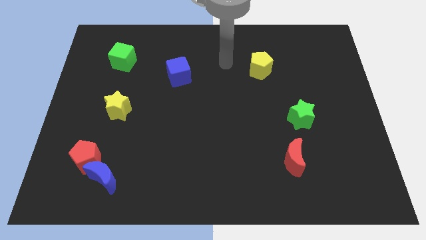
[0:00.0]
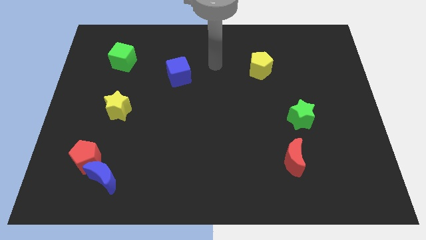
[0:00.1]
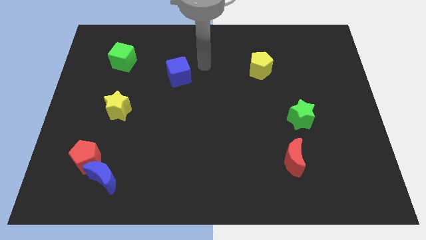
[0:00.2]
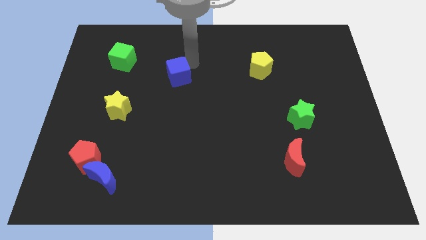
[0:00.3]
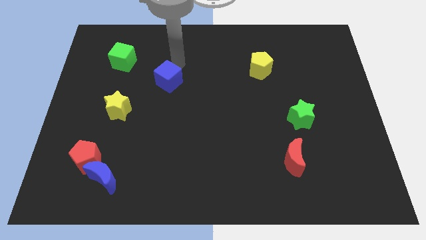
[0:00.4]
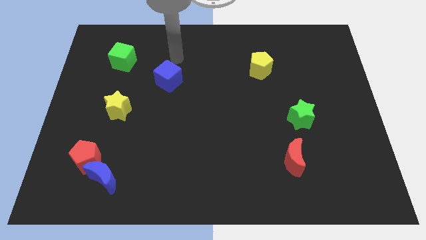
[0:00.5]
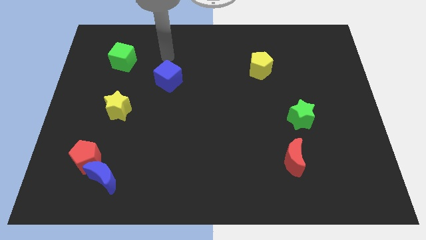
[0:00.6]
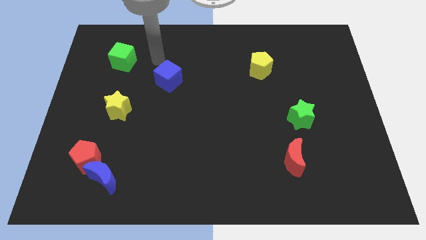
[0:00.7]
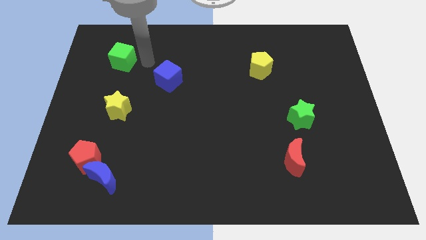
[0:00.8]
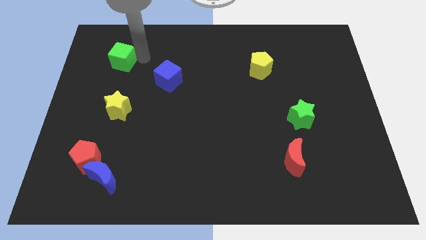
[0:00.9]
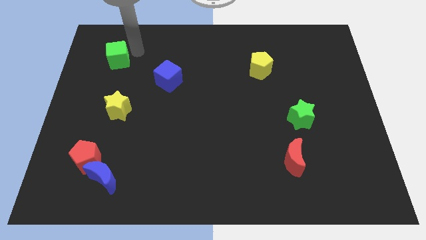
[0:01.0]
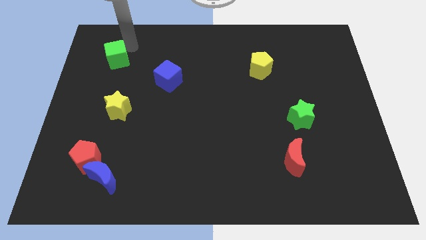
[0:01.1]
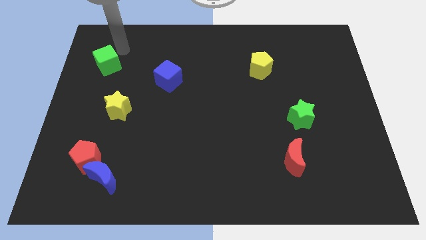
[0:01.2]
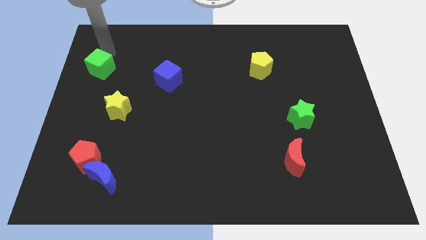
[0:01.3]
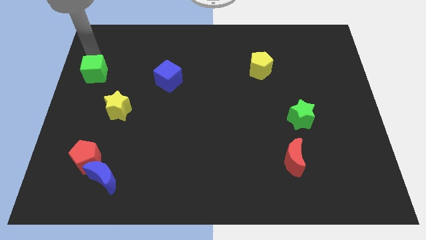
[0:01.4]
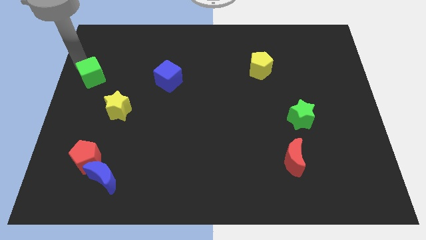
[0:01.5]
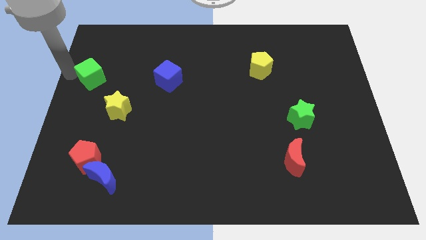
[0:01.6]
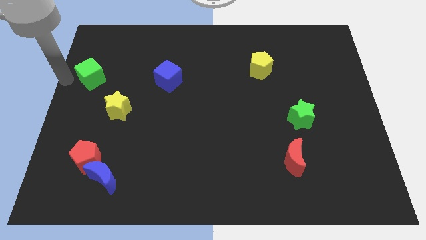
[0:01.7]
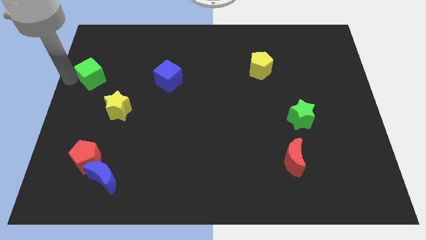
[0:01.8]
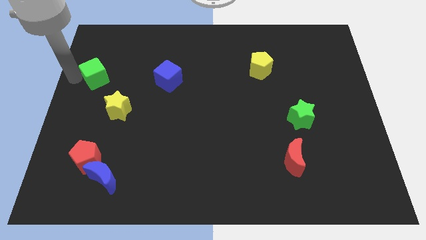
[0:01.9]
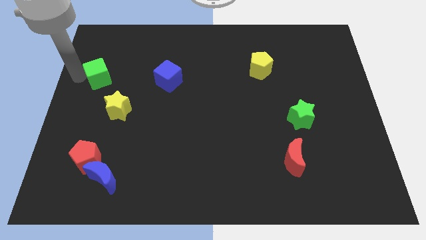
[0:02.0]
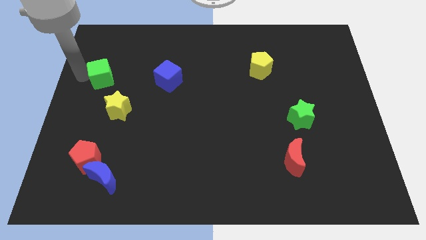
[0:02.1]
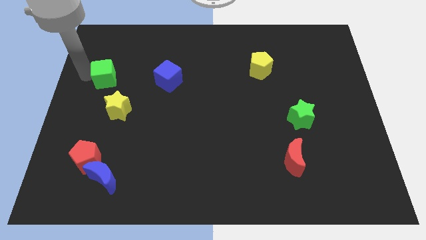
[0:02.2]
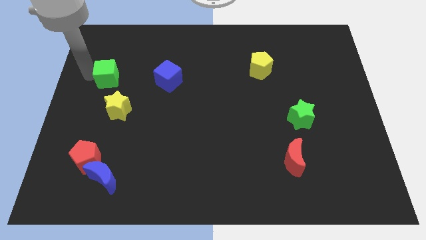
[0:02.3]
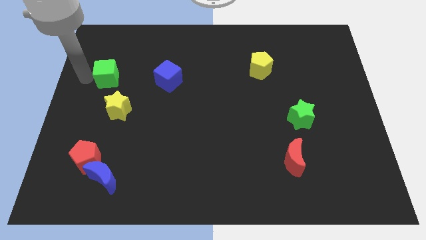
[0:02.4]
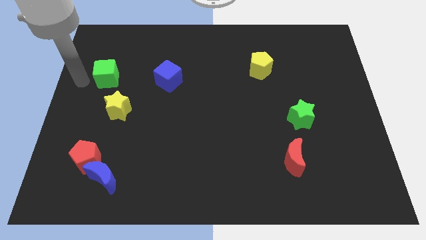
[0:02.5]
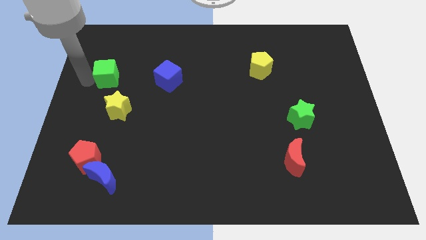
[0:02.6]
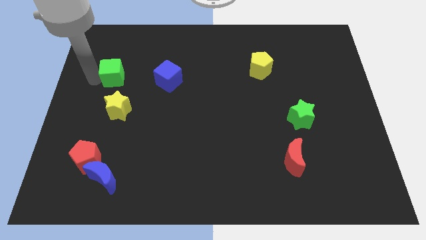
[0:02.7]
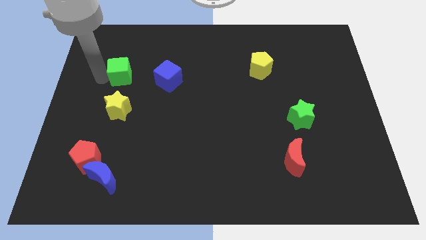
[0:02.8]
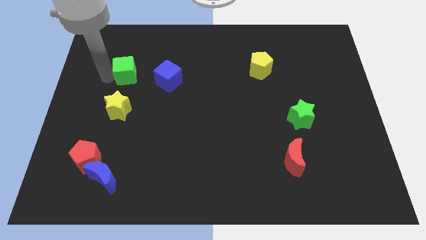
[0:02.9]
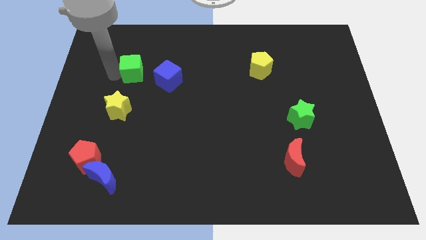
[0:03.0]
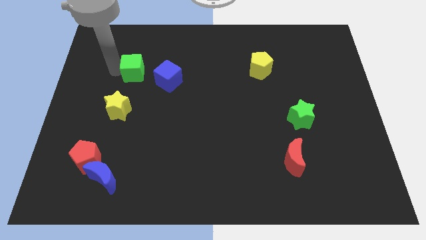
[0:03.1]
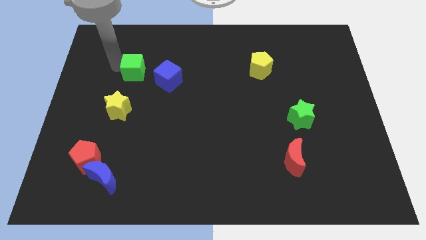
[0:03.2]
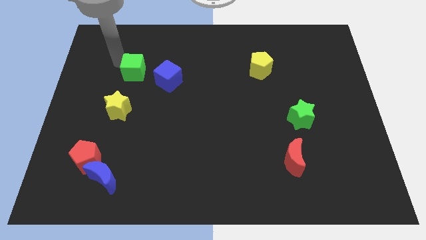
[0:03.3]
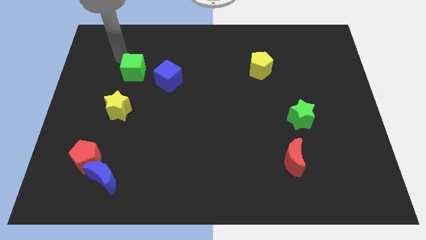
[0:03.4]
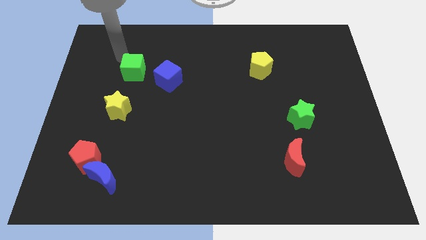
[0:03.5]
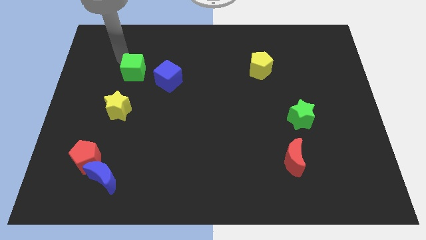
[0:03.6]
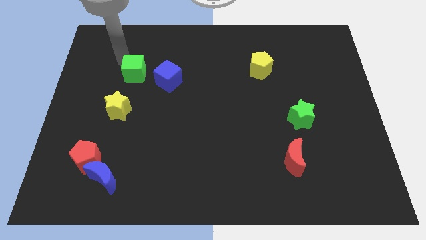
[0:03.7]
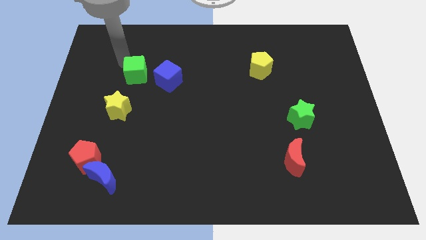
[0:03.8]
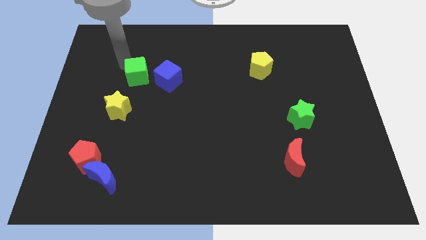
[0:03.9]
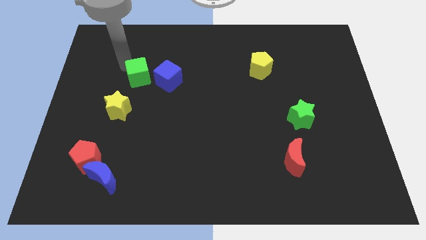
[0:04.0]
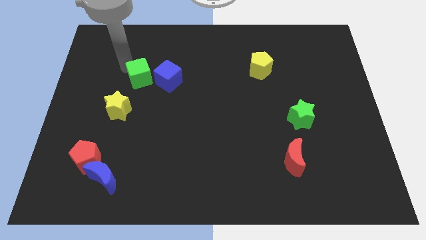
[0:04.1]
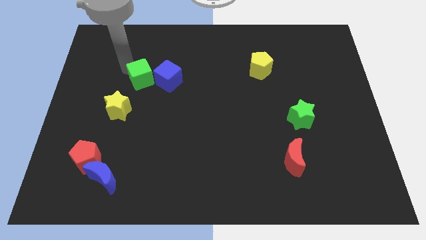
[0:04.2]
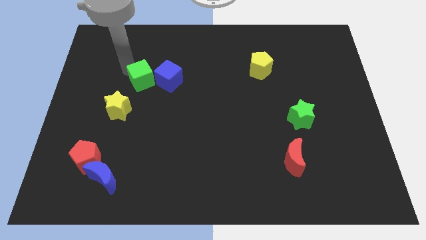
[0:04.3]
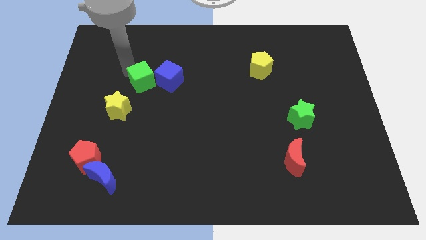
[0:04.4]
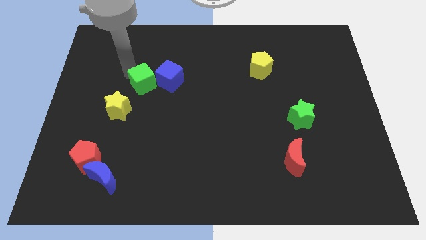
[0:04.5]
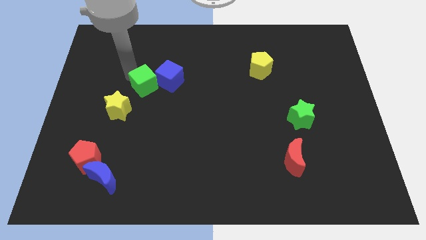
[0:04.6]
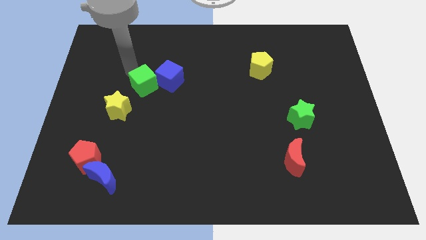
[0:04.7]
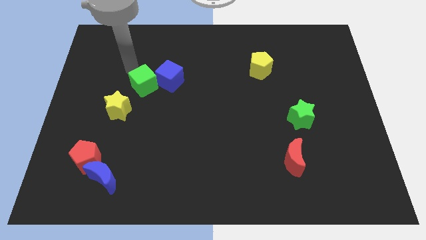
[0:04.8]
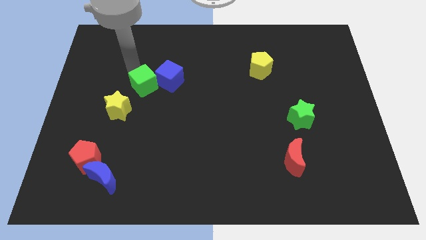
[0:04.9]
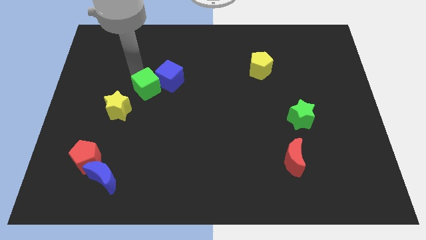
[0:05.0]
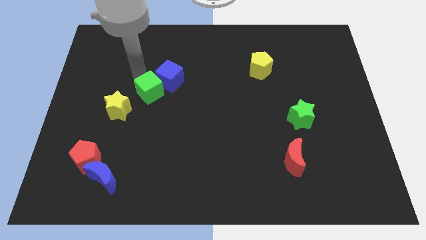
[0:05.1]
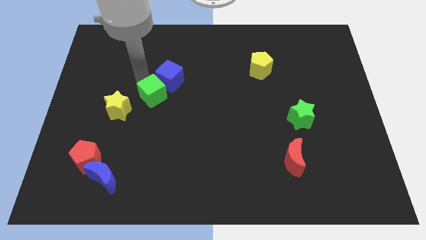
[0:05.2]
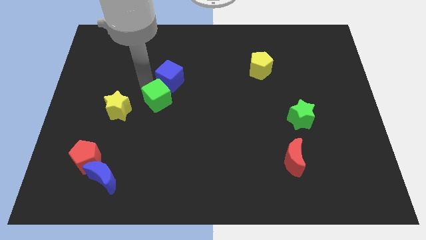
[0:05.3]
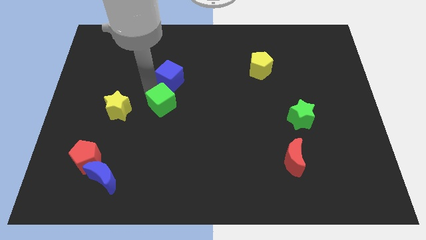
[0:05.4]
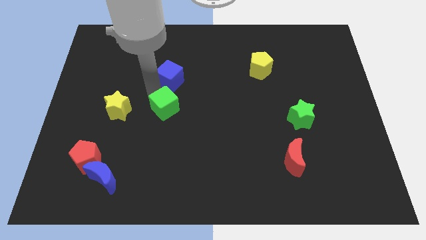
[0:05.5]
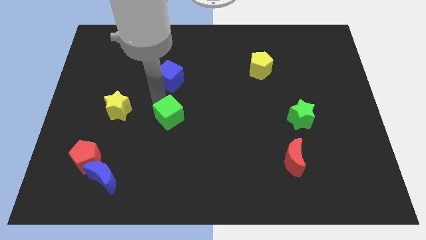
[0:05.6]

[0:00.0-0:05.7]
slide the green cube diagonally downwards and right

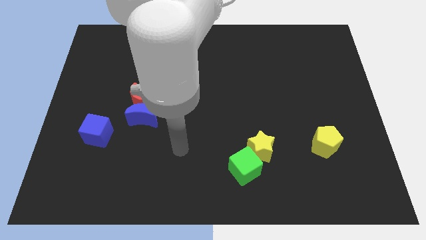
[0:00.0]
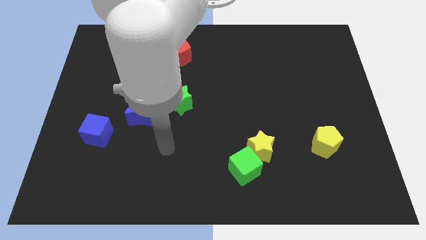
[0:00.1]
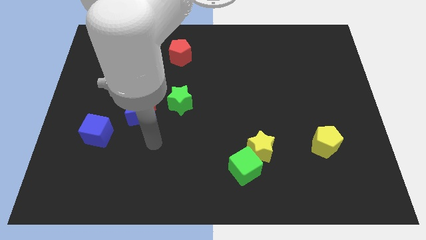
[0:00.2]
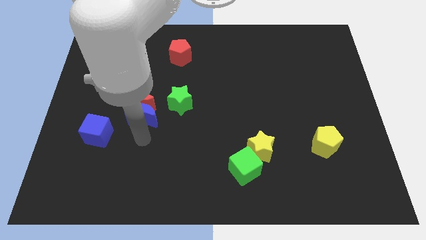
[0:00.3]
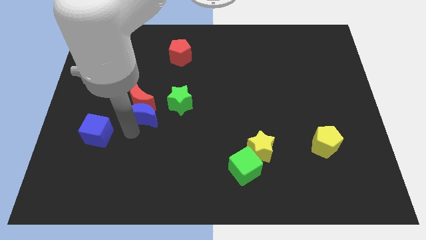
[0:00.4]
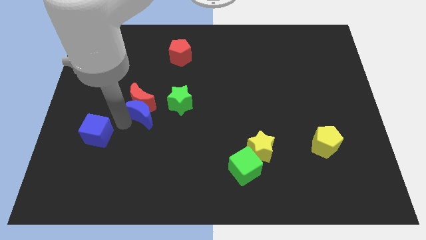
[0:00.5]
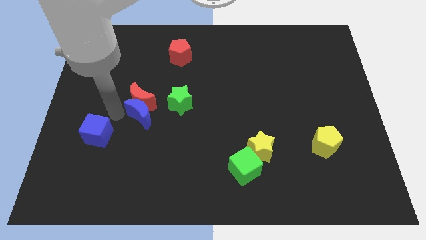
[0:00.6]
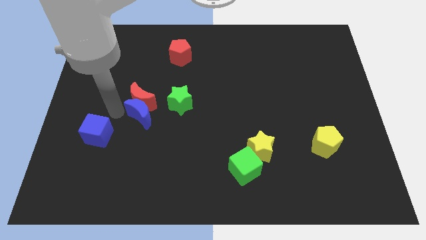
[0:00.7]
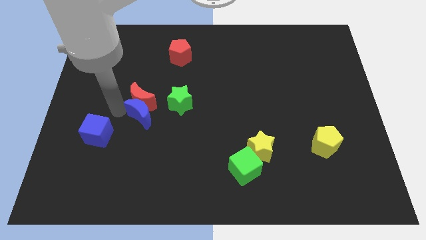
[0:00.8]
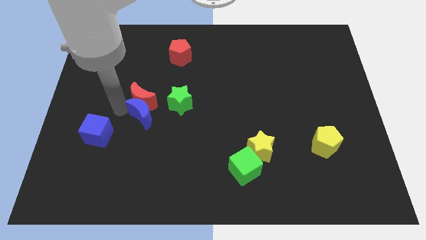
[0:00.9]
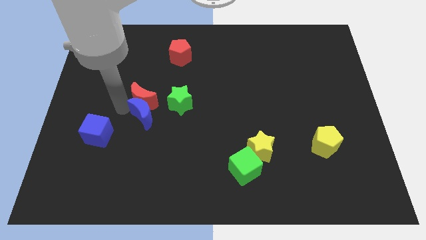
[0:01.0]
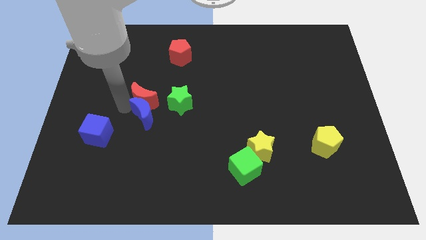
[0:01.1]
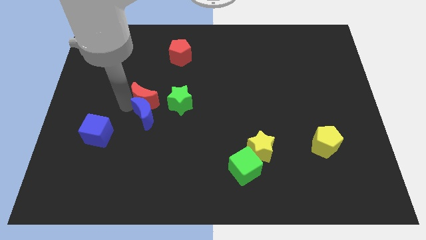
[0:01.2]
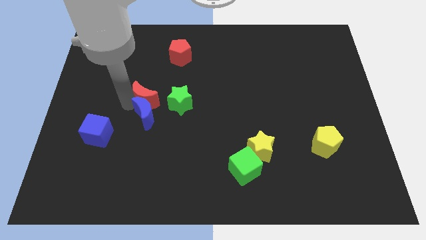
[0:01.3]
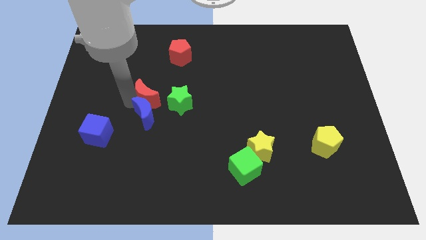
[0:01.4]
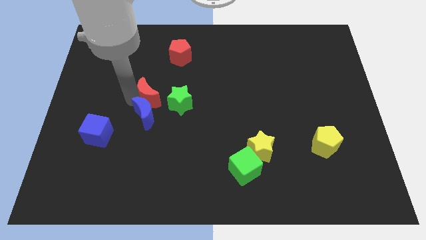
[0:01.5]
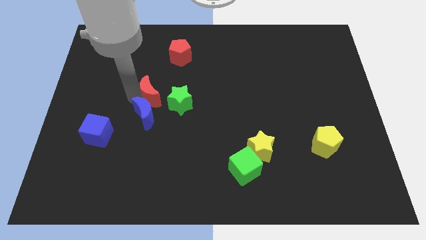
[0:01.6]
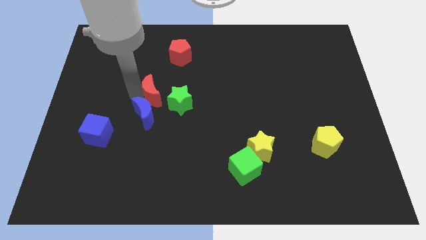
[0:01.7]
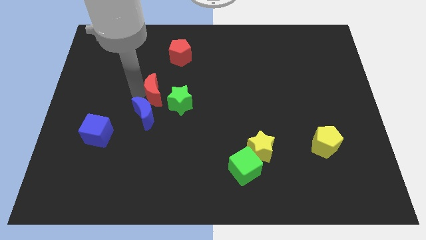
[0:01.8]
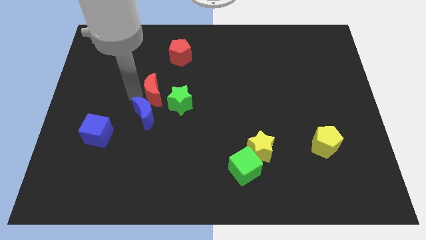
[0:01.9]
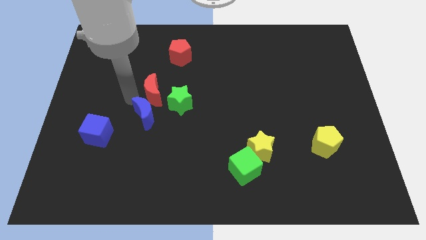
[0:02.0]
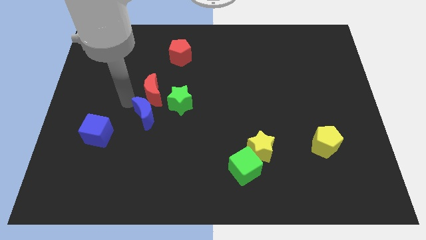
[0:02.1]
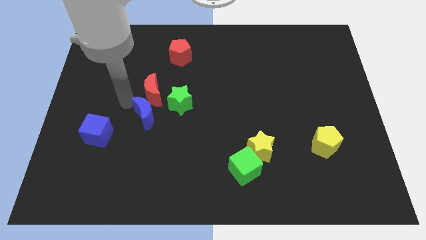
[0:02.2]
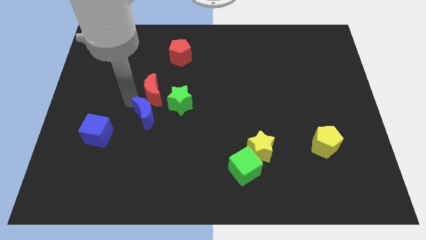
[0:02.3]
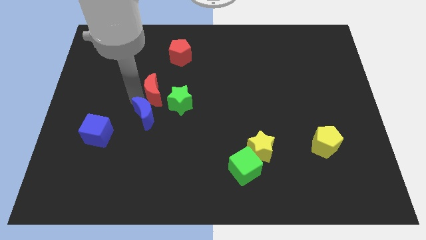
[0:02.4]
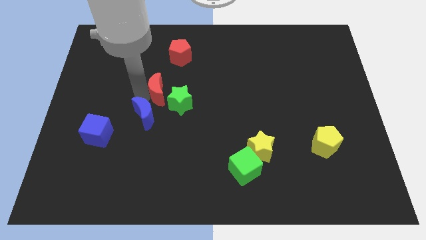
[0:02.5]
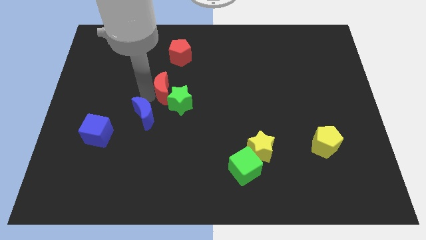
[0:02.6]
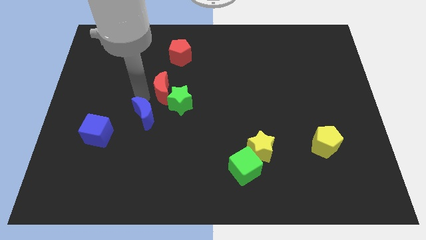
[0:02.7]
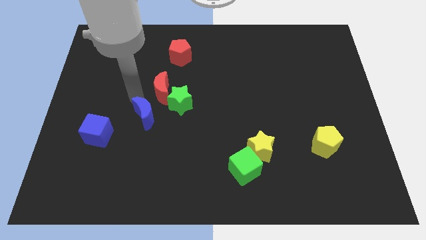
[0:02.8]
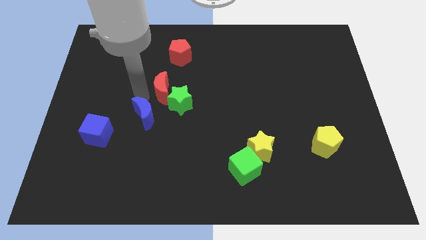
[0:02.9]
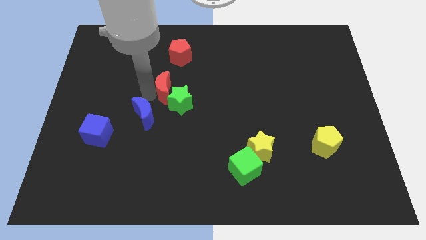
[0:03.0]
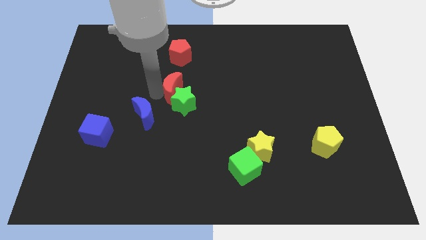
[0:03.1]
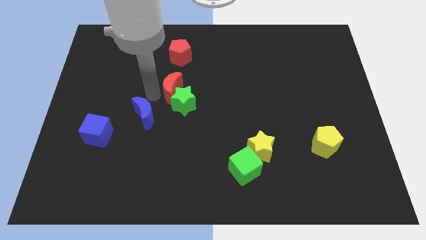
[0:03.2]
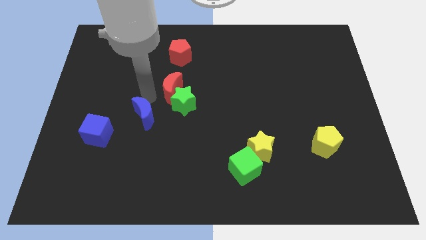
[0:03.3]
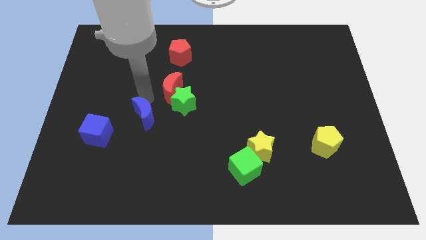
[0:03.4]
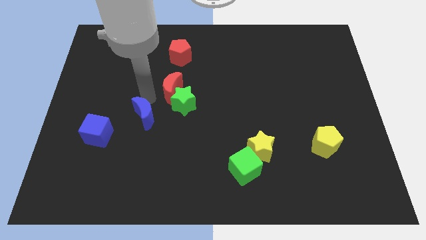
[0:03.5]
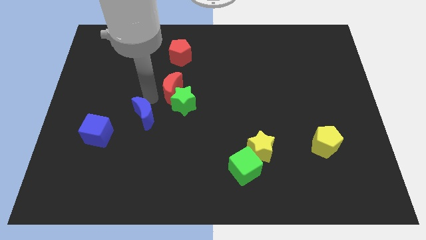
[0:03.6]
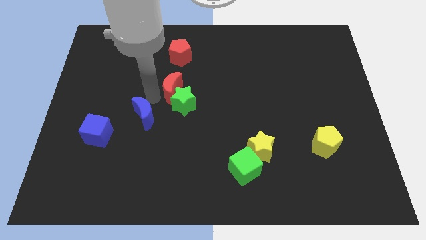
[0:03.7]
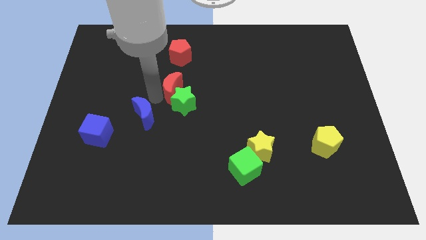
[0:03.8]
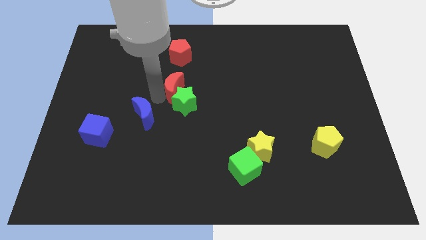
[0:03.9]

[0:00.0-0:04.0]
move the red moon to the right somewhat
